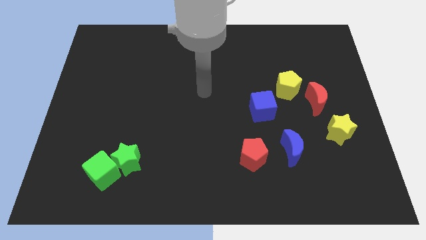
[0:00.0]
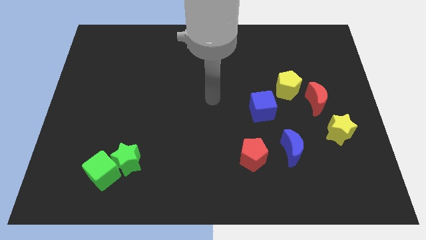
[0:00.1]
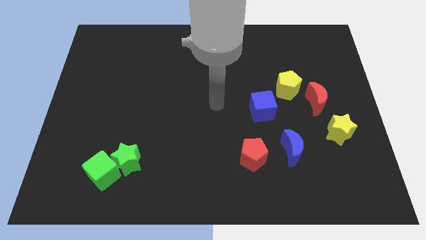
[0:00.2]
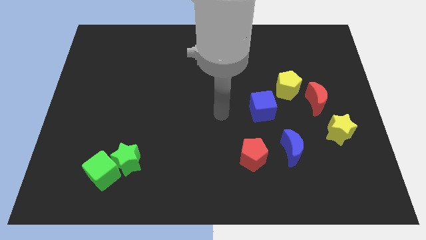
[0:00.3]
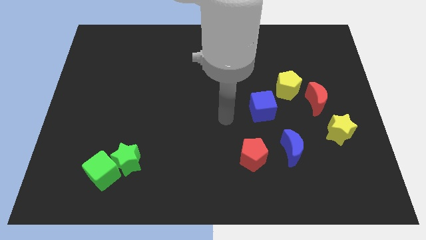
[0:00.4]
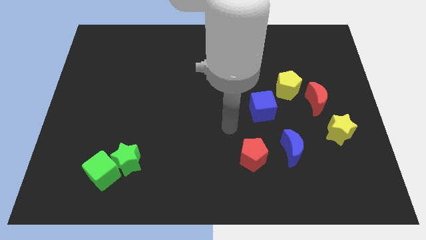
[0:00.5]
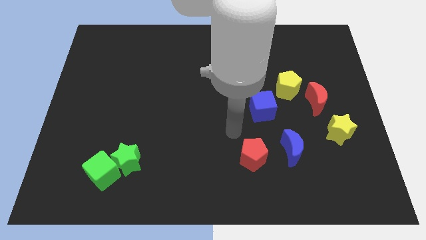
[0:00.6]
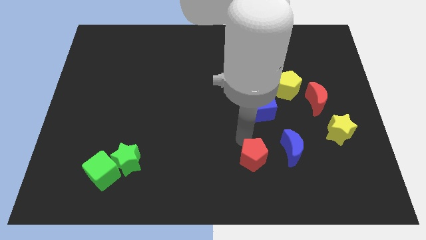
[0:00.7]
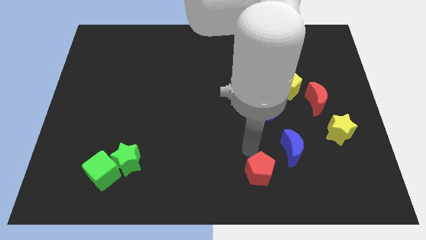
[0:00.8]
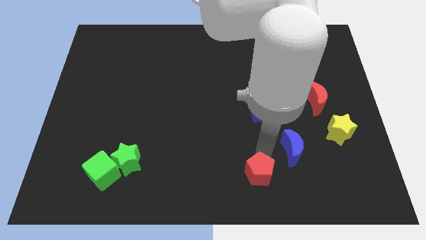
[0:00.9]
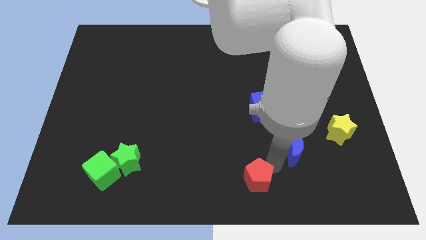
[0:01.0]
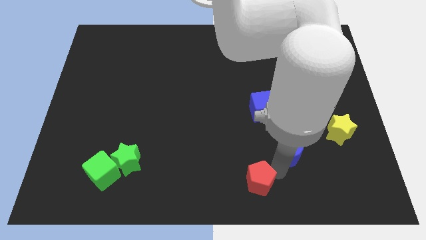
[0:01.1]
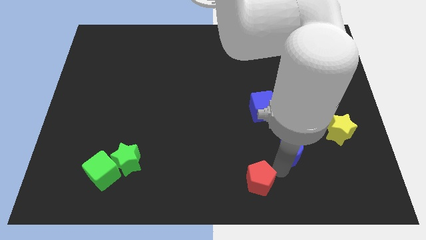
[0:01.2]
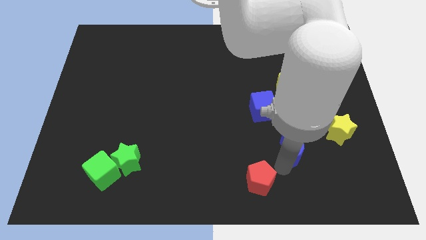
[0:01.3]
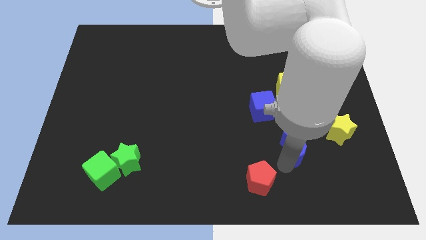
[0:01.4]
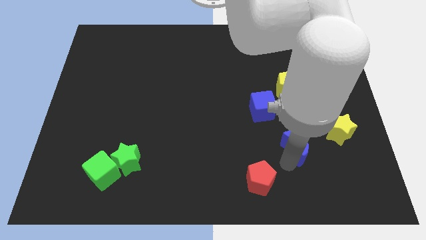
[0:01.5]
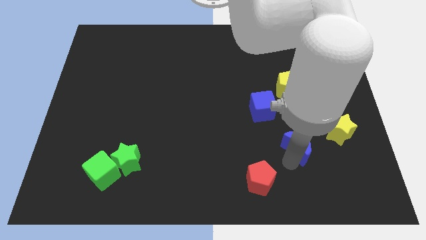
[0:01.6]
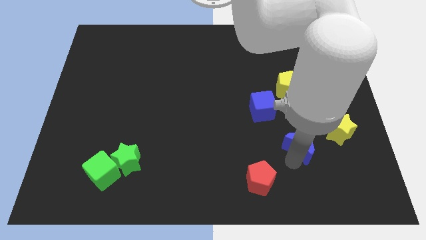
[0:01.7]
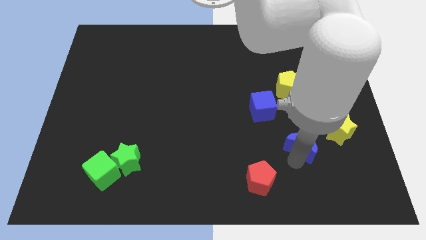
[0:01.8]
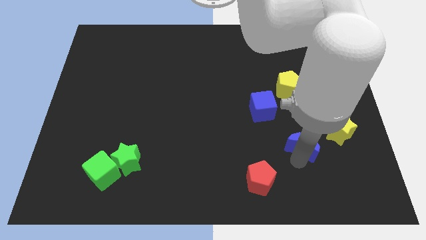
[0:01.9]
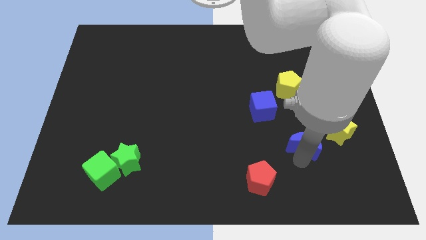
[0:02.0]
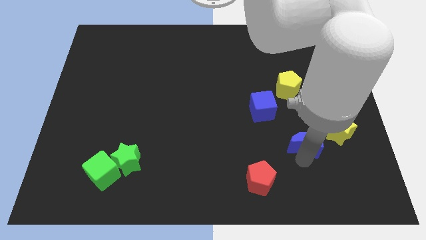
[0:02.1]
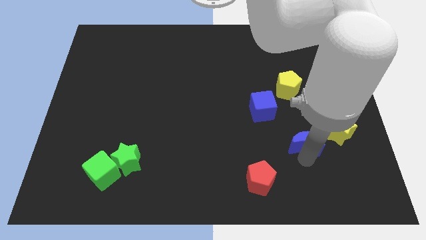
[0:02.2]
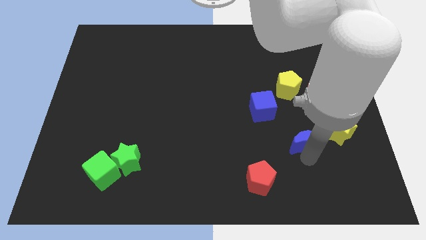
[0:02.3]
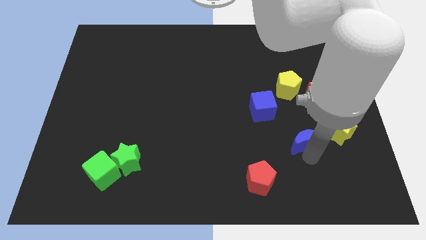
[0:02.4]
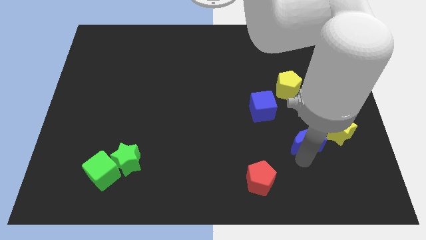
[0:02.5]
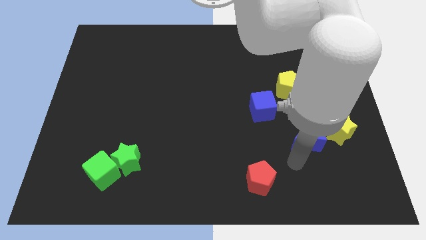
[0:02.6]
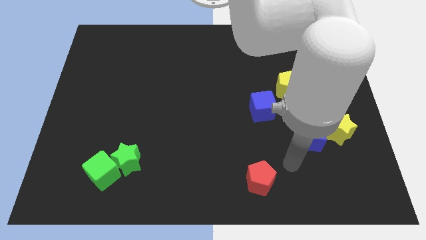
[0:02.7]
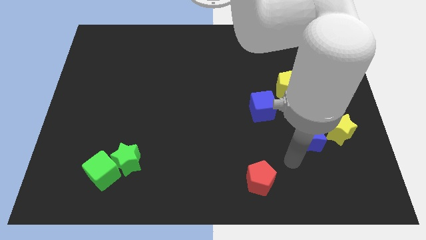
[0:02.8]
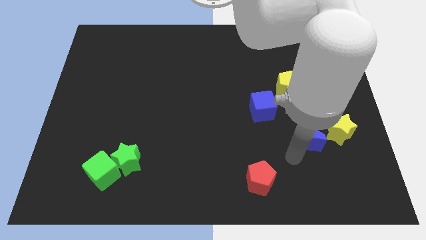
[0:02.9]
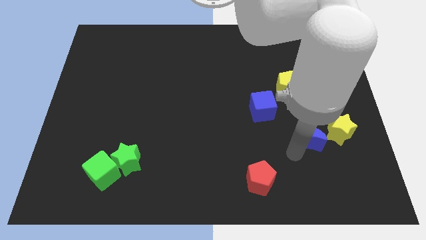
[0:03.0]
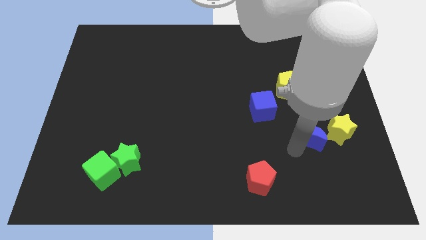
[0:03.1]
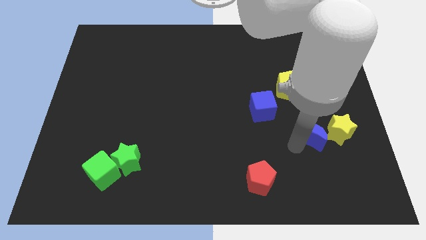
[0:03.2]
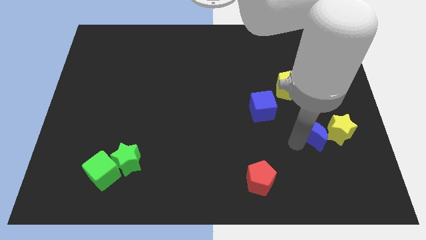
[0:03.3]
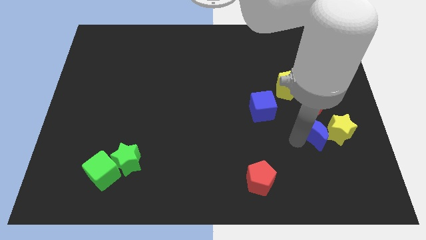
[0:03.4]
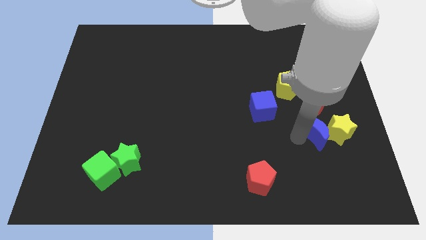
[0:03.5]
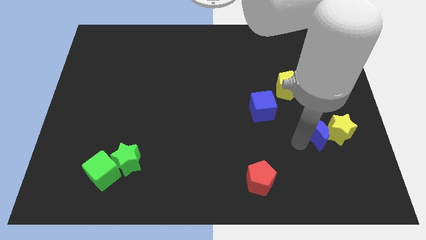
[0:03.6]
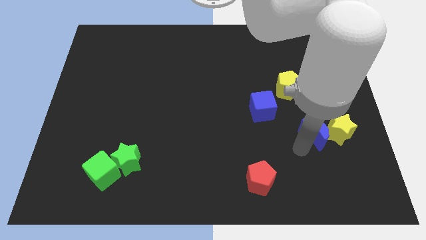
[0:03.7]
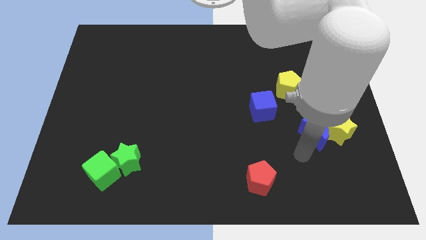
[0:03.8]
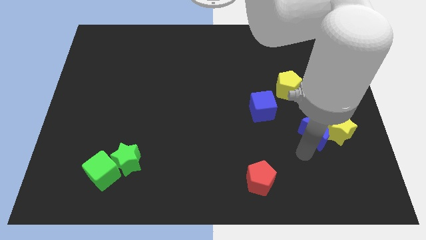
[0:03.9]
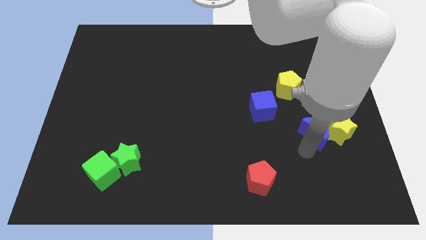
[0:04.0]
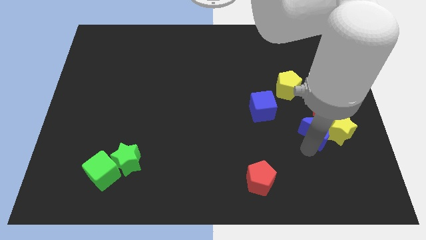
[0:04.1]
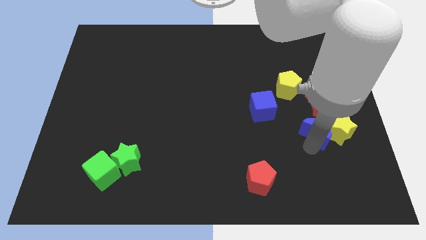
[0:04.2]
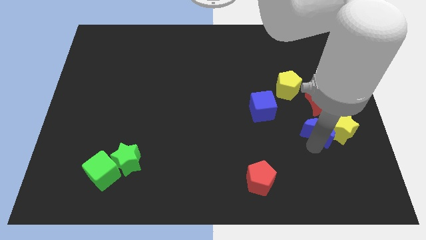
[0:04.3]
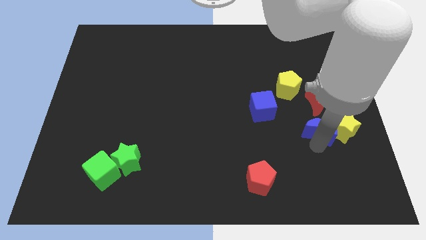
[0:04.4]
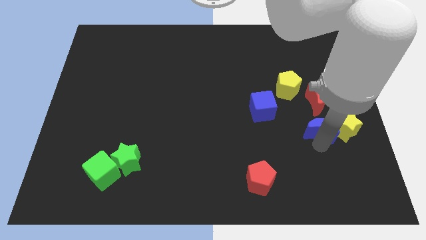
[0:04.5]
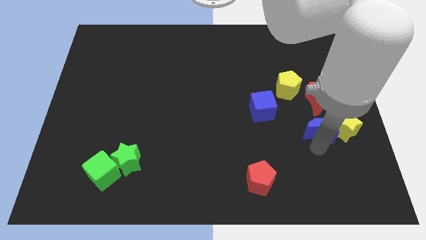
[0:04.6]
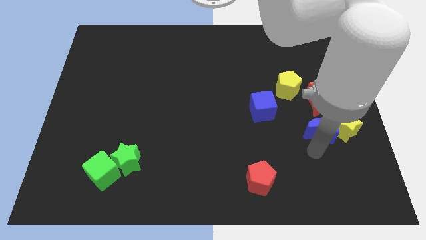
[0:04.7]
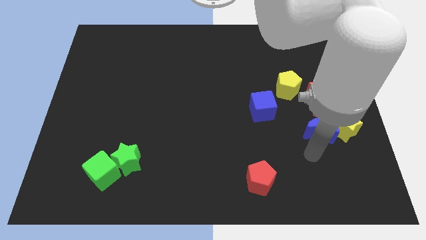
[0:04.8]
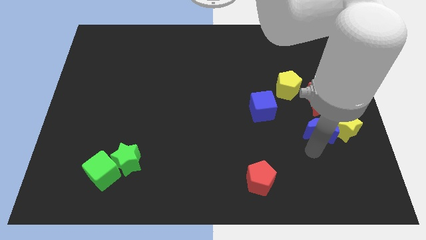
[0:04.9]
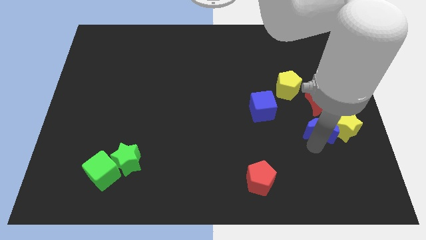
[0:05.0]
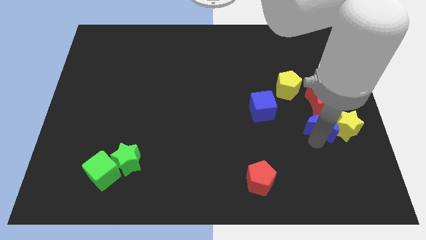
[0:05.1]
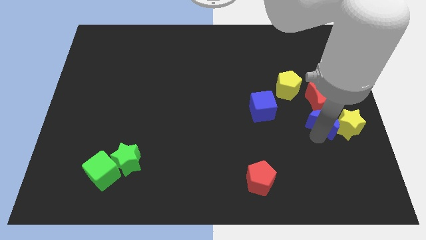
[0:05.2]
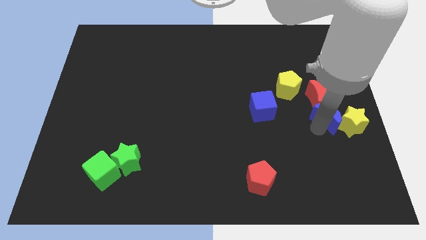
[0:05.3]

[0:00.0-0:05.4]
push the blue moon to the right side

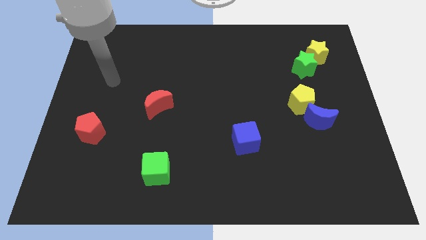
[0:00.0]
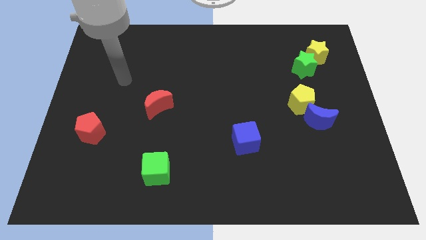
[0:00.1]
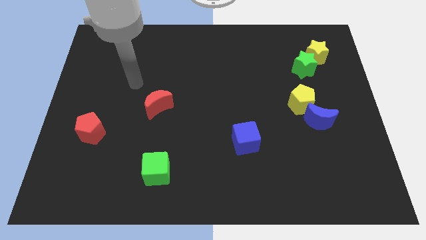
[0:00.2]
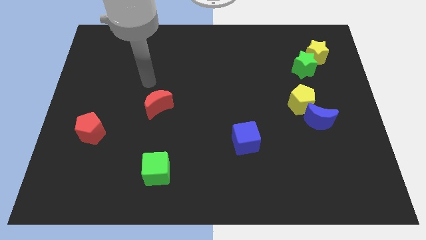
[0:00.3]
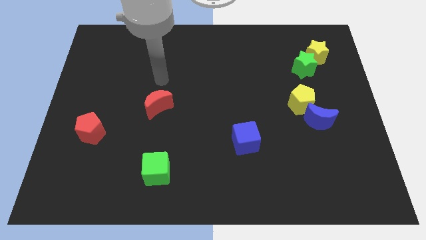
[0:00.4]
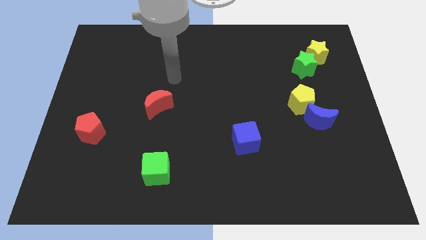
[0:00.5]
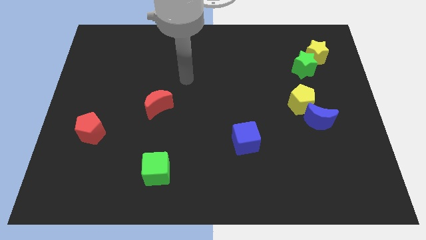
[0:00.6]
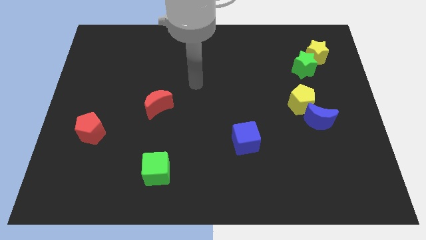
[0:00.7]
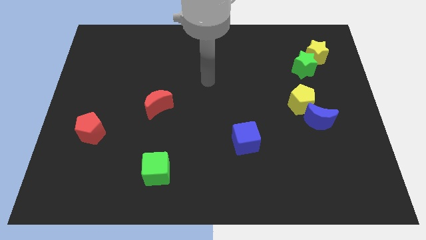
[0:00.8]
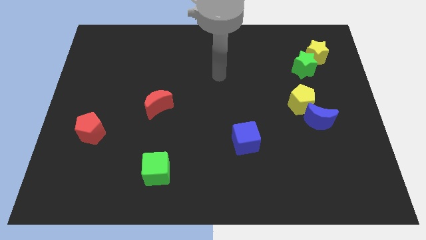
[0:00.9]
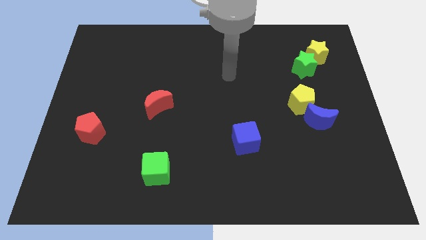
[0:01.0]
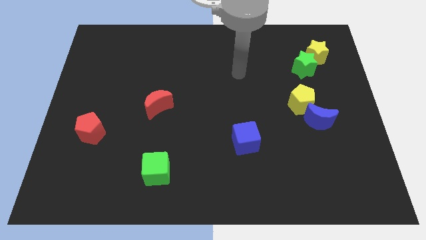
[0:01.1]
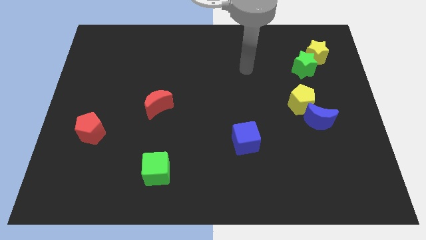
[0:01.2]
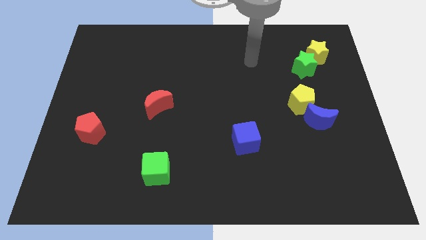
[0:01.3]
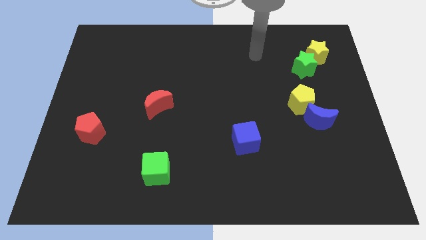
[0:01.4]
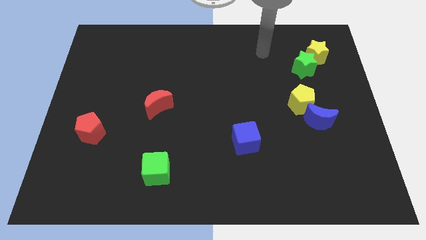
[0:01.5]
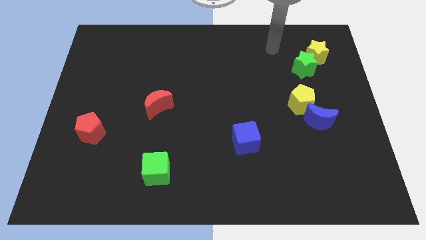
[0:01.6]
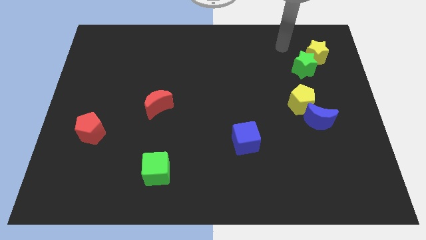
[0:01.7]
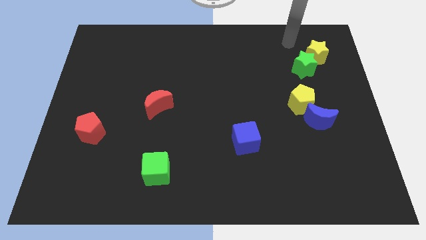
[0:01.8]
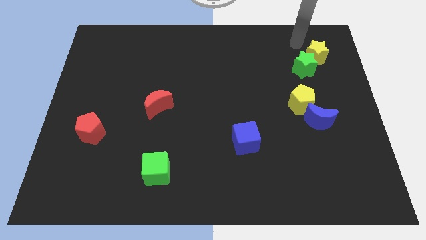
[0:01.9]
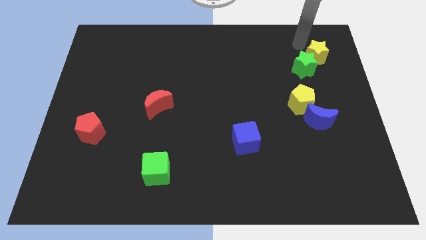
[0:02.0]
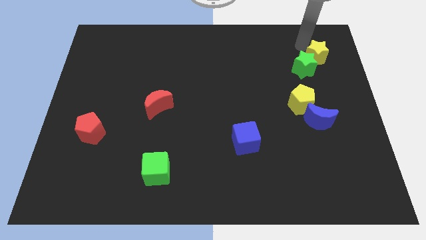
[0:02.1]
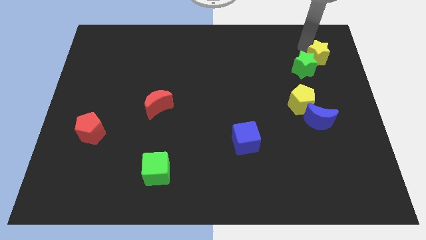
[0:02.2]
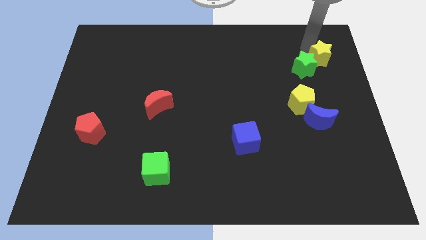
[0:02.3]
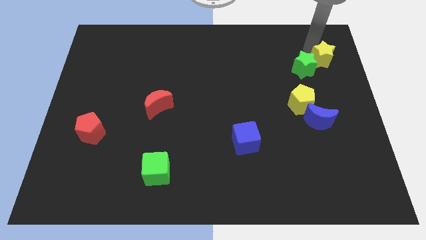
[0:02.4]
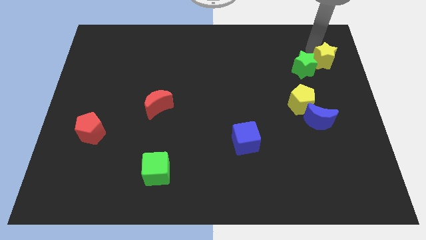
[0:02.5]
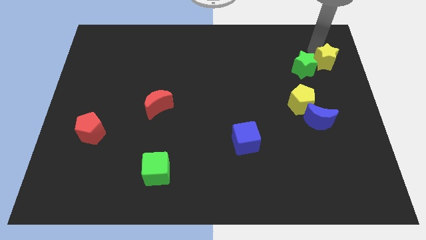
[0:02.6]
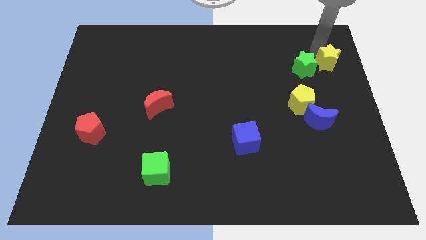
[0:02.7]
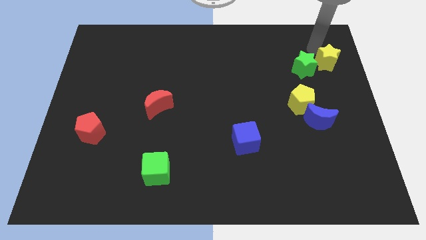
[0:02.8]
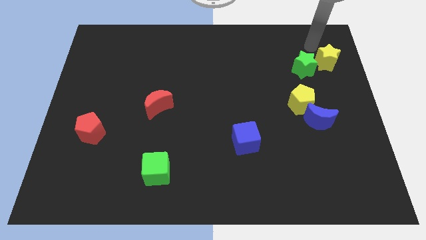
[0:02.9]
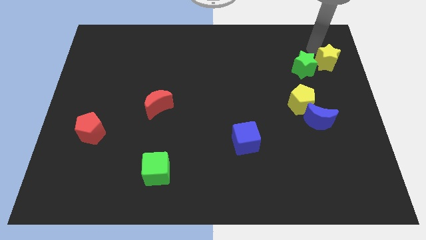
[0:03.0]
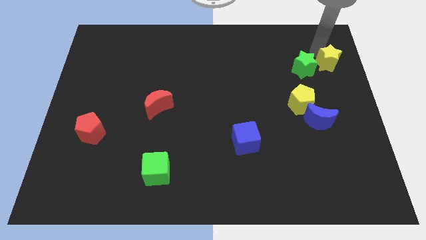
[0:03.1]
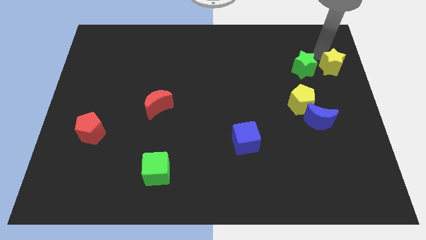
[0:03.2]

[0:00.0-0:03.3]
move the yellow star to the right side
